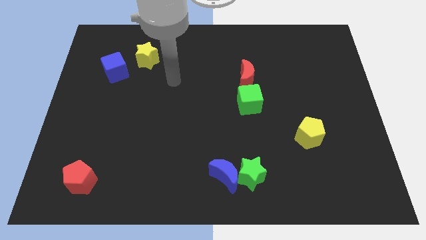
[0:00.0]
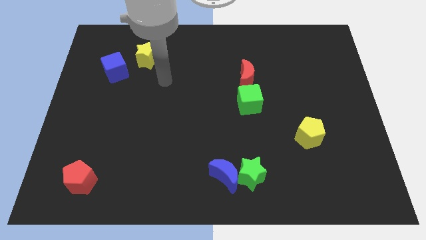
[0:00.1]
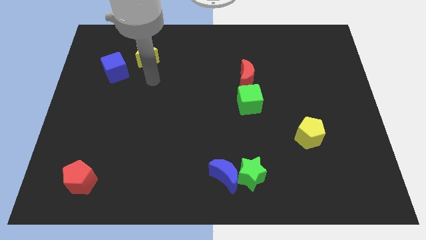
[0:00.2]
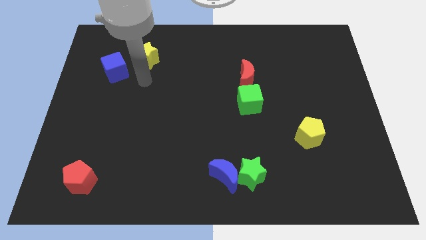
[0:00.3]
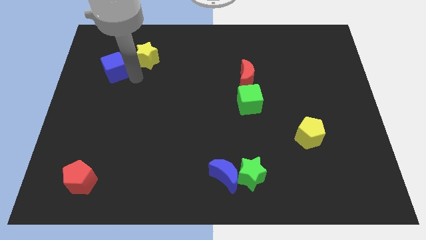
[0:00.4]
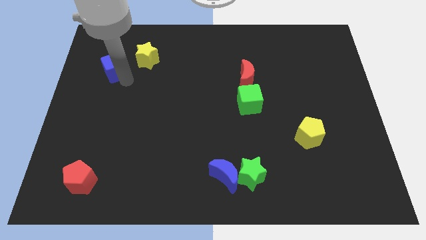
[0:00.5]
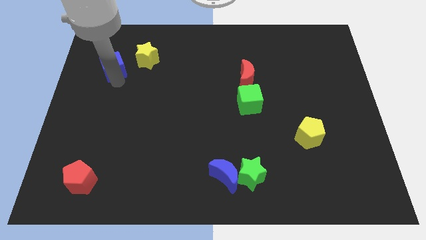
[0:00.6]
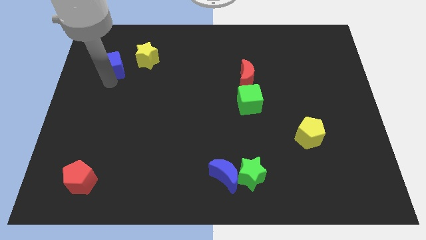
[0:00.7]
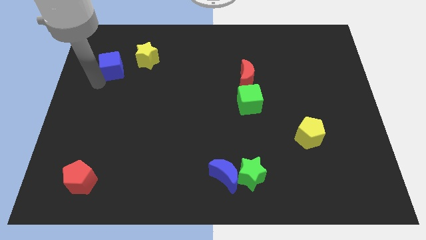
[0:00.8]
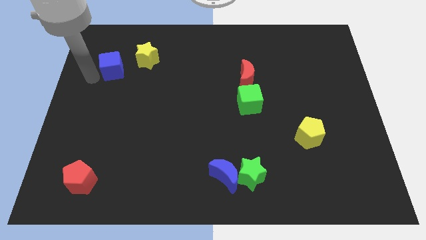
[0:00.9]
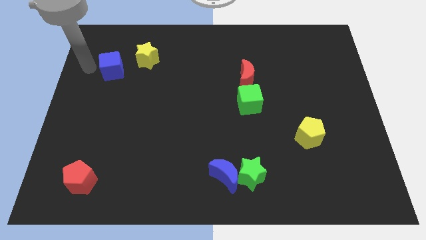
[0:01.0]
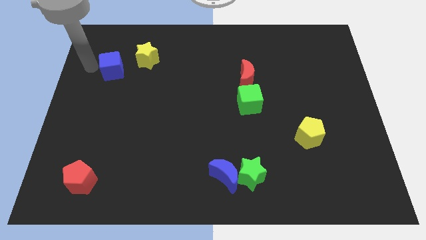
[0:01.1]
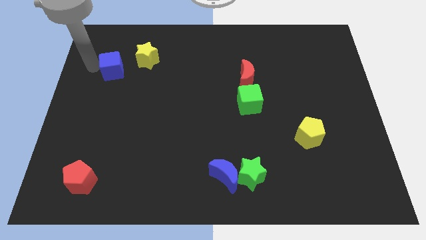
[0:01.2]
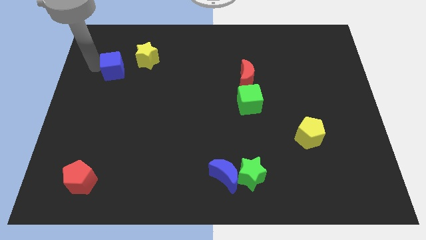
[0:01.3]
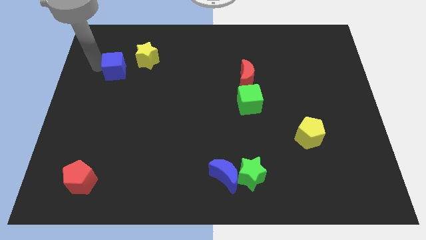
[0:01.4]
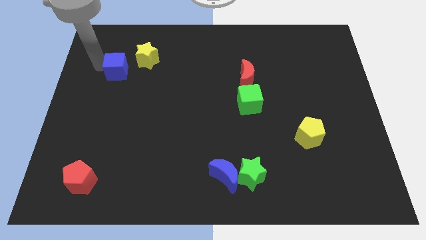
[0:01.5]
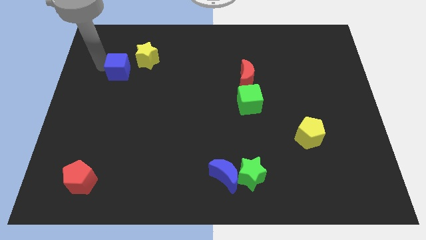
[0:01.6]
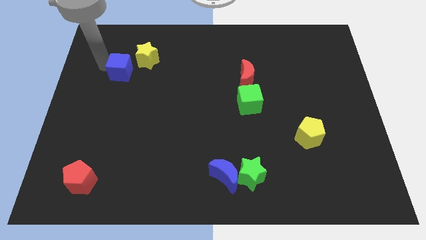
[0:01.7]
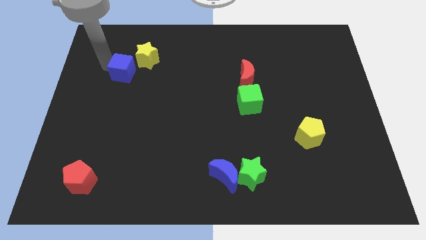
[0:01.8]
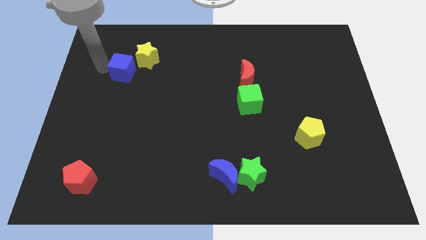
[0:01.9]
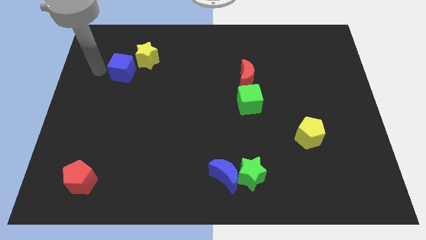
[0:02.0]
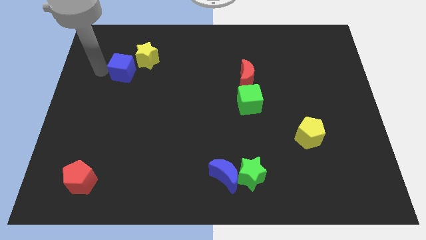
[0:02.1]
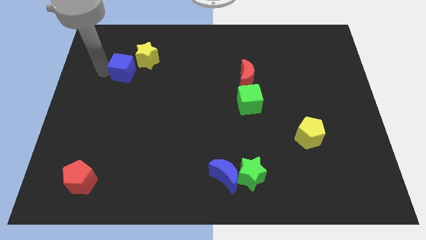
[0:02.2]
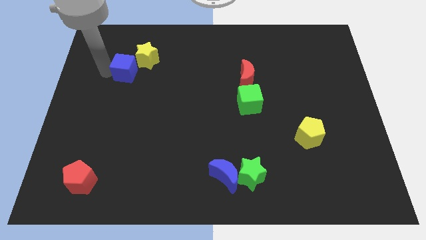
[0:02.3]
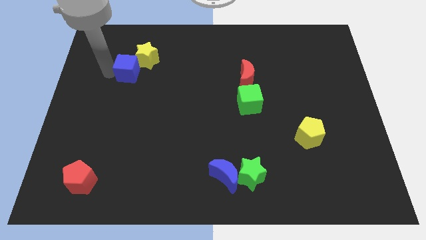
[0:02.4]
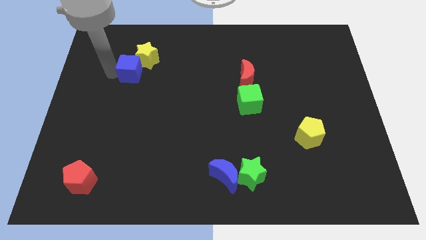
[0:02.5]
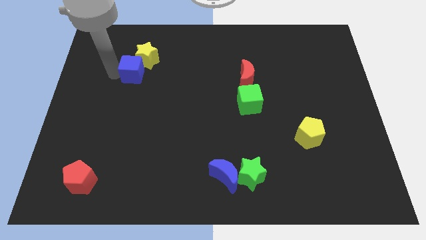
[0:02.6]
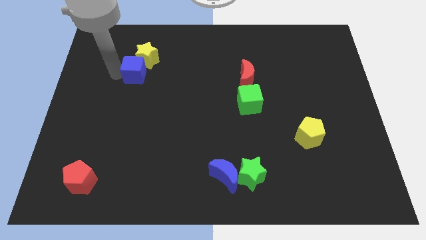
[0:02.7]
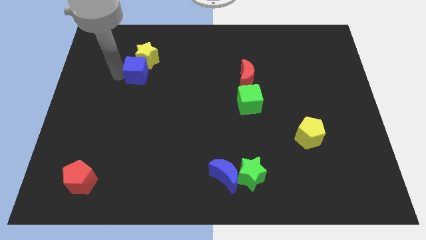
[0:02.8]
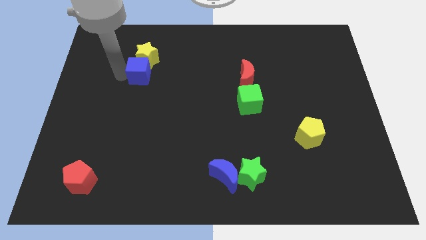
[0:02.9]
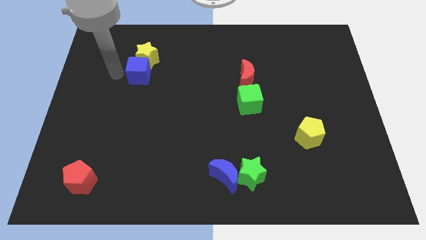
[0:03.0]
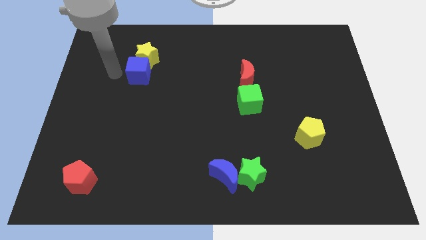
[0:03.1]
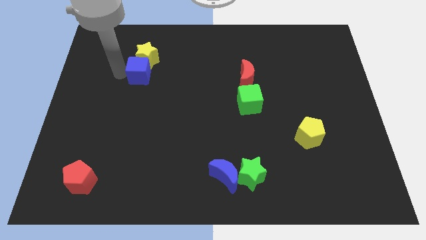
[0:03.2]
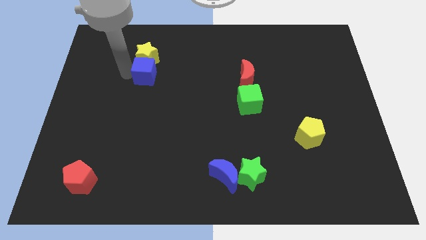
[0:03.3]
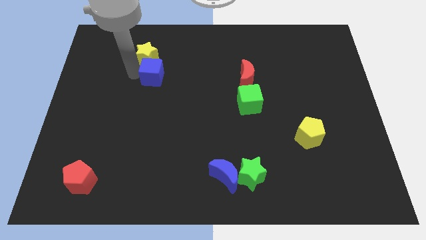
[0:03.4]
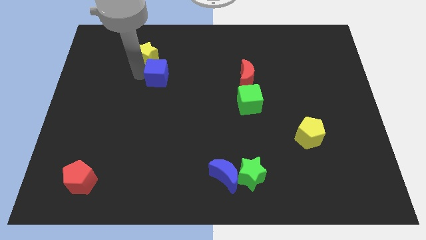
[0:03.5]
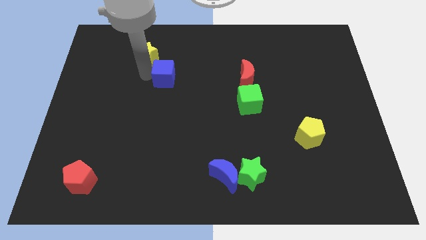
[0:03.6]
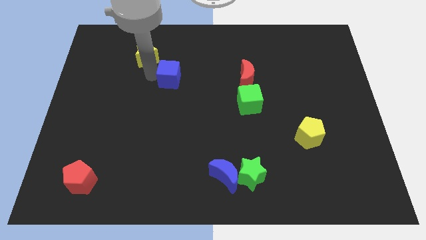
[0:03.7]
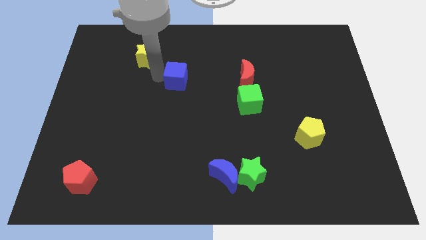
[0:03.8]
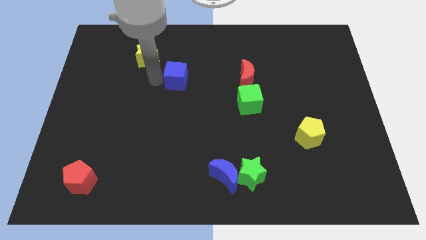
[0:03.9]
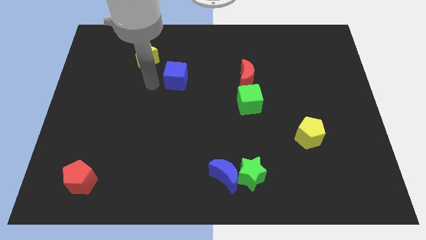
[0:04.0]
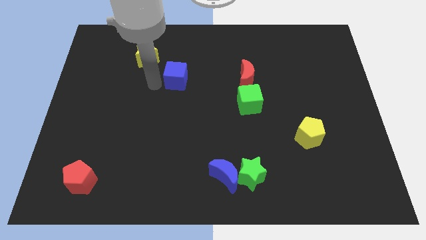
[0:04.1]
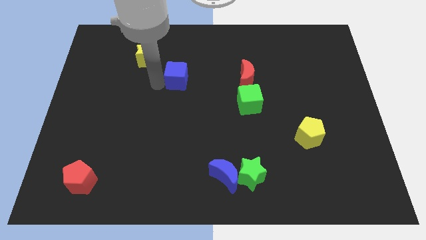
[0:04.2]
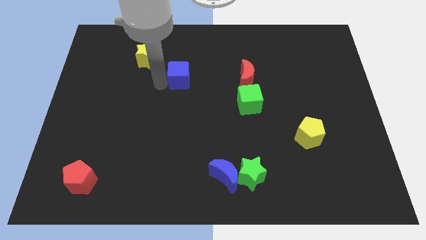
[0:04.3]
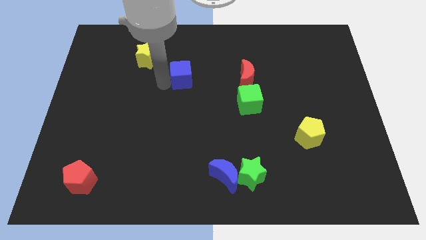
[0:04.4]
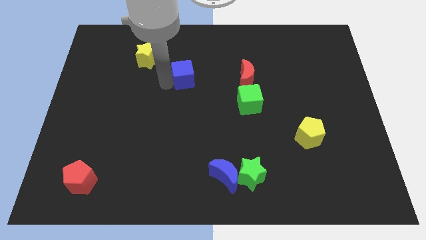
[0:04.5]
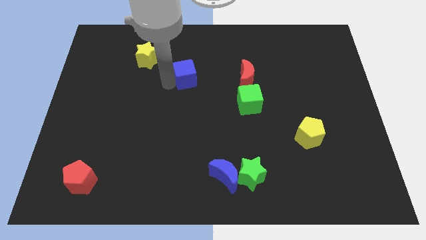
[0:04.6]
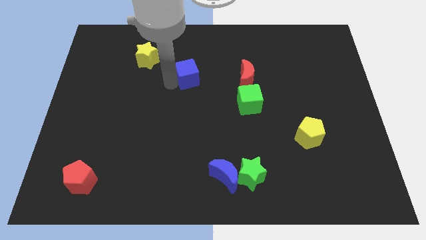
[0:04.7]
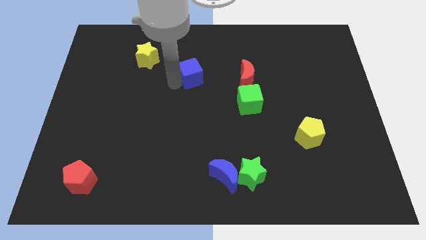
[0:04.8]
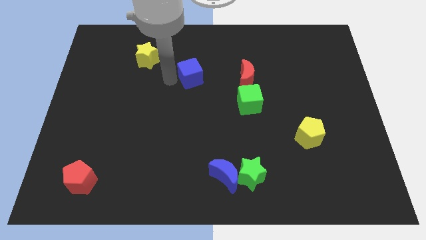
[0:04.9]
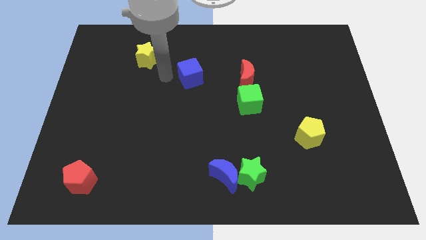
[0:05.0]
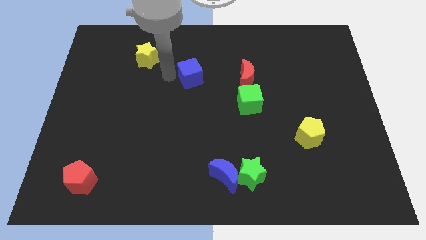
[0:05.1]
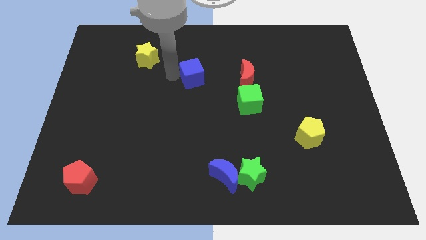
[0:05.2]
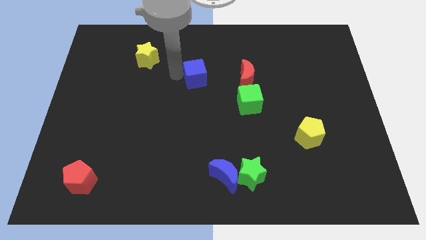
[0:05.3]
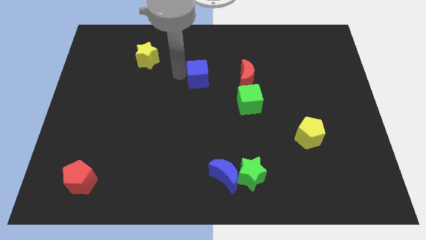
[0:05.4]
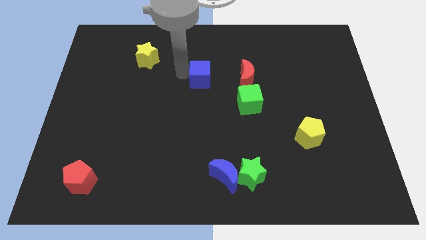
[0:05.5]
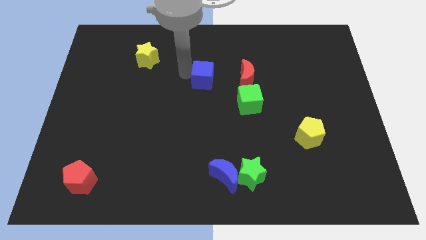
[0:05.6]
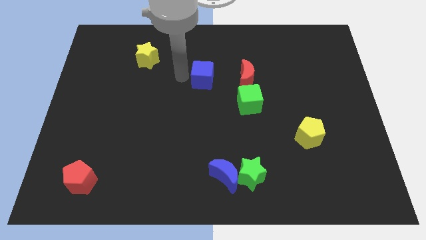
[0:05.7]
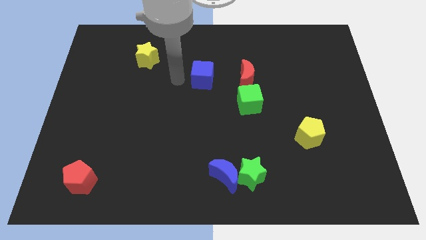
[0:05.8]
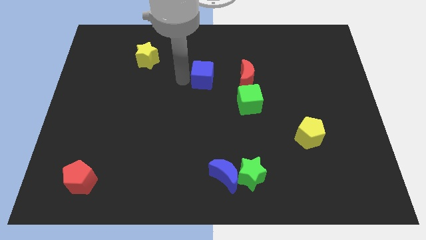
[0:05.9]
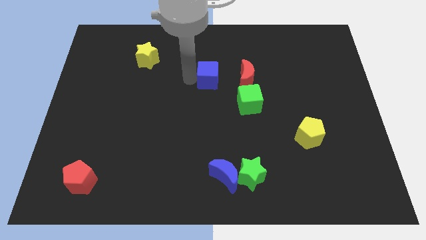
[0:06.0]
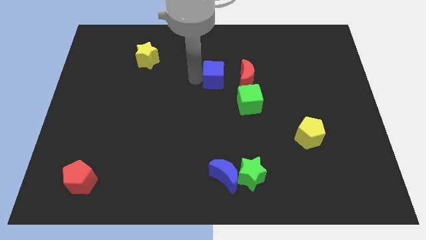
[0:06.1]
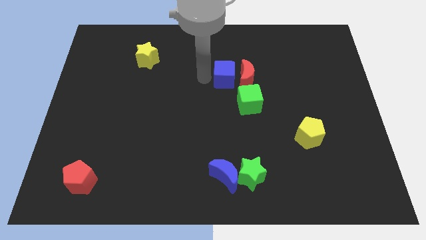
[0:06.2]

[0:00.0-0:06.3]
slide the blue cube next to the red moon

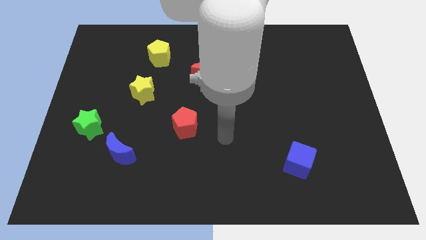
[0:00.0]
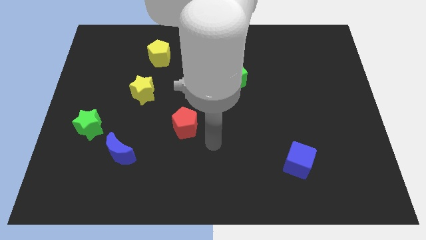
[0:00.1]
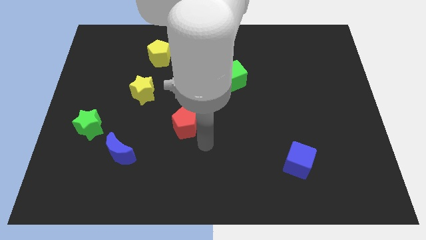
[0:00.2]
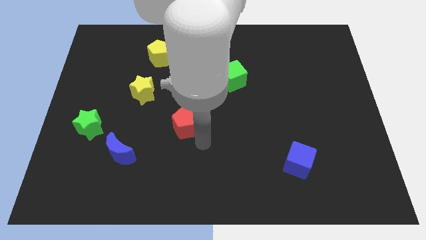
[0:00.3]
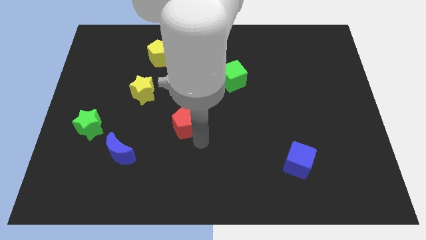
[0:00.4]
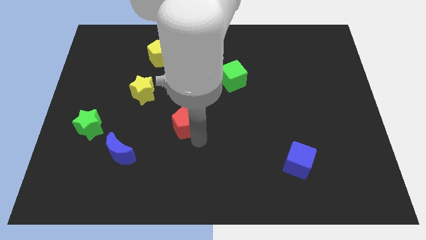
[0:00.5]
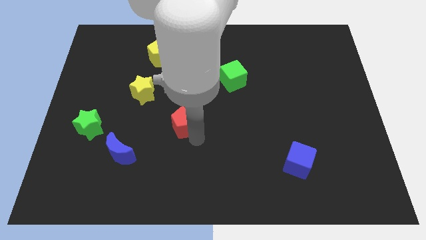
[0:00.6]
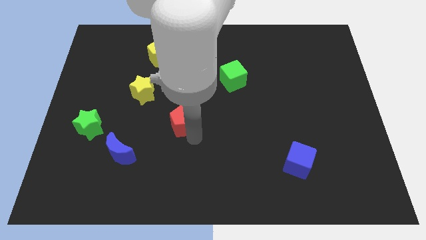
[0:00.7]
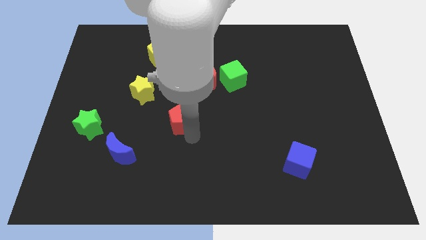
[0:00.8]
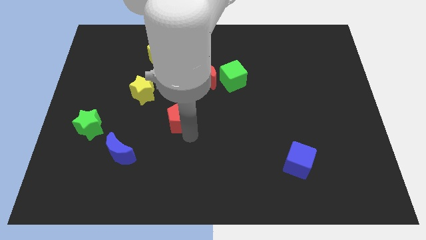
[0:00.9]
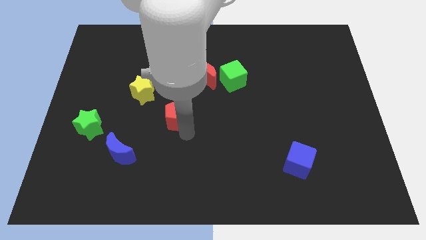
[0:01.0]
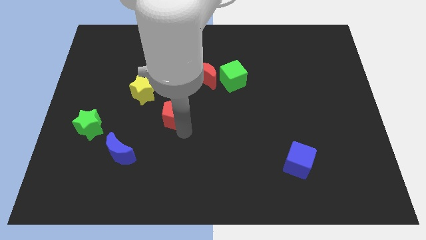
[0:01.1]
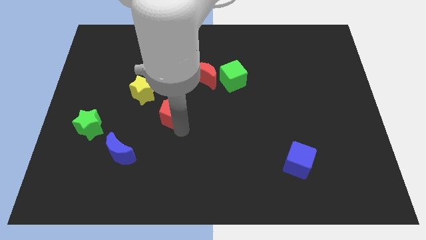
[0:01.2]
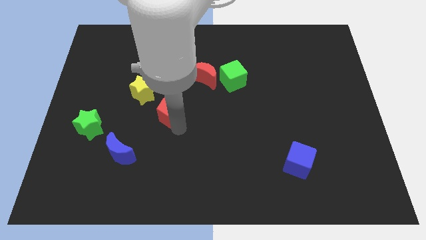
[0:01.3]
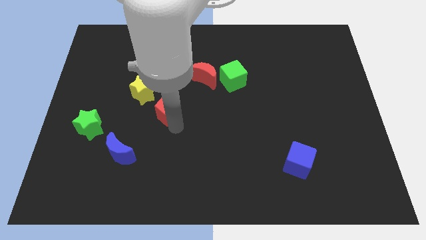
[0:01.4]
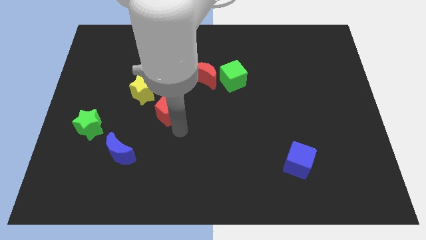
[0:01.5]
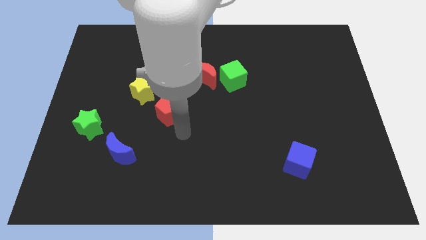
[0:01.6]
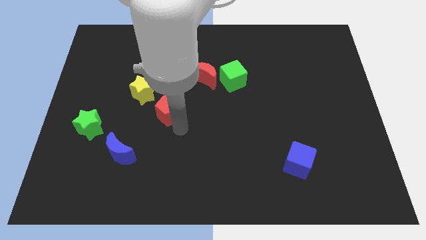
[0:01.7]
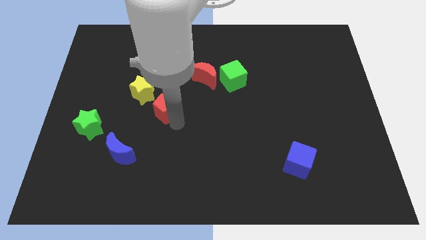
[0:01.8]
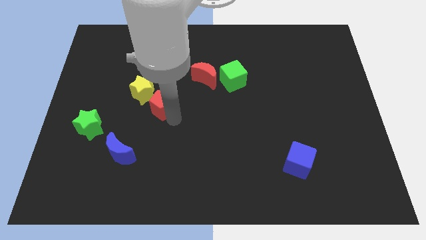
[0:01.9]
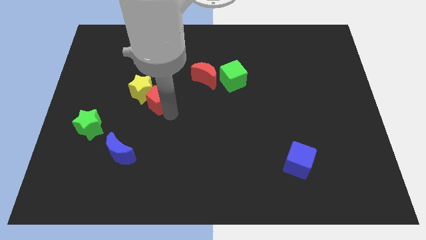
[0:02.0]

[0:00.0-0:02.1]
slide the red pentagon close to the yellow star
